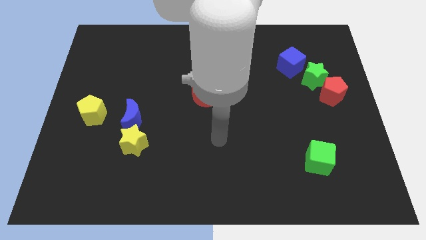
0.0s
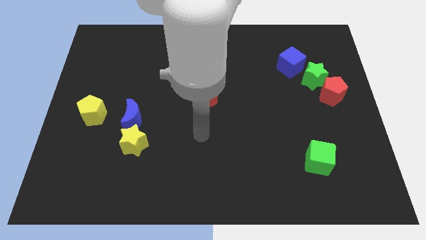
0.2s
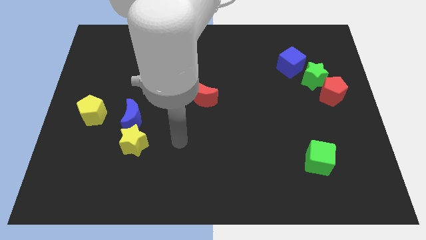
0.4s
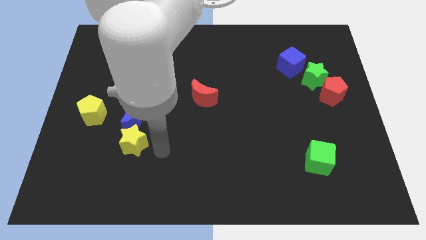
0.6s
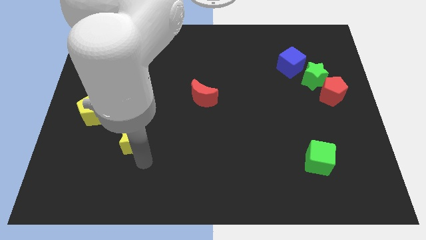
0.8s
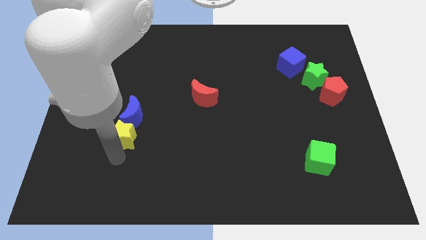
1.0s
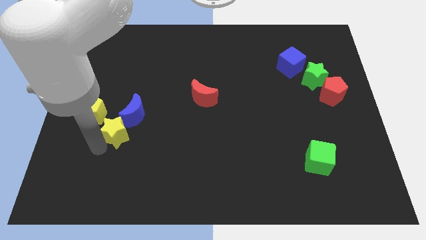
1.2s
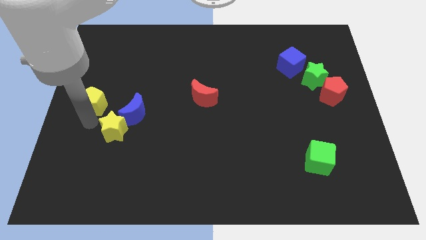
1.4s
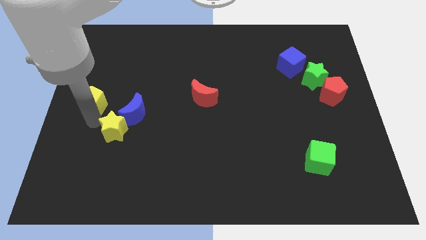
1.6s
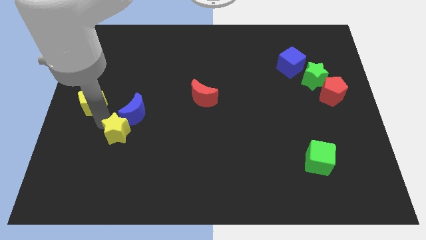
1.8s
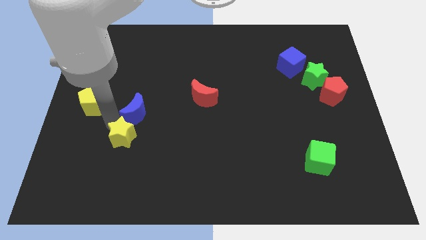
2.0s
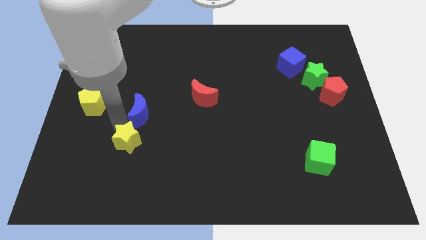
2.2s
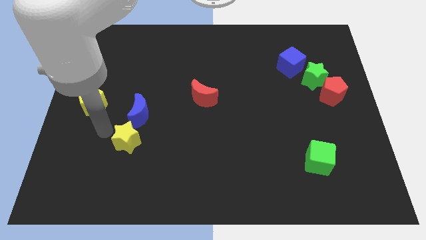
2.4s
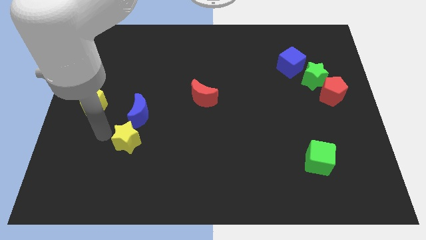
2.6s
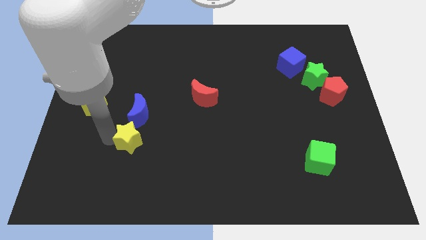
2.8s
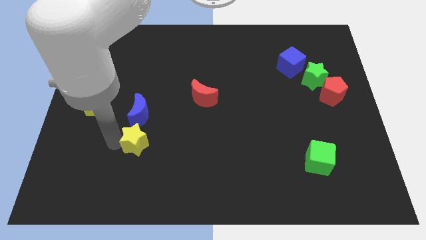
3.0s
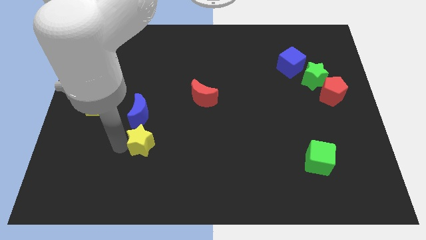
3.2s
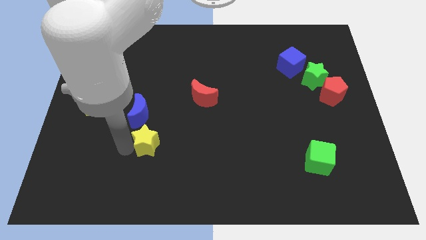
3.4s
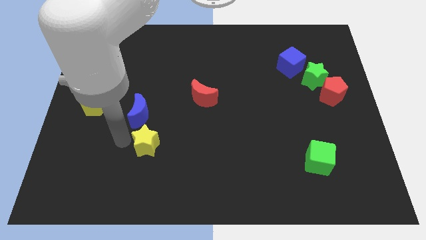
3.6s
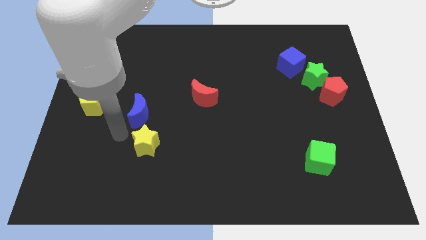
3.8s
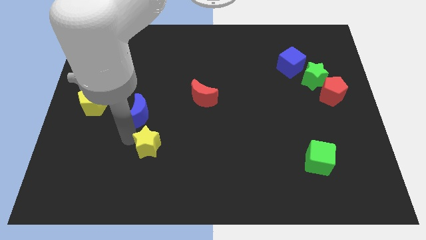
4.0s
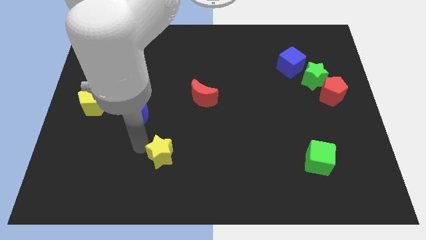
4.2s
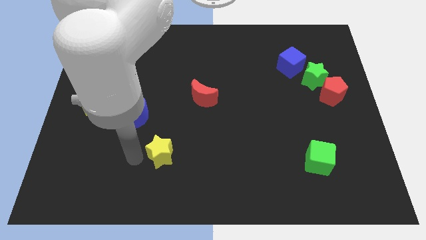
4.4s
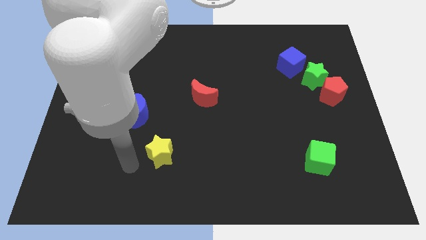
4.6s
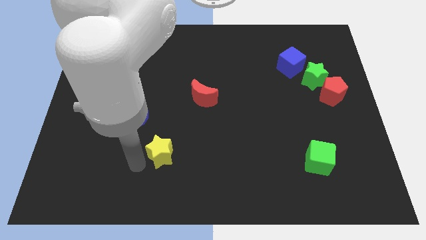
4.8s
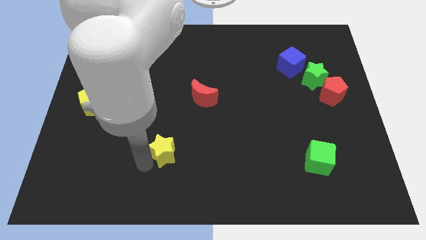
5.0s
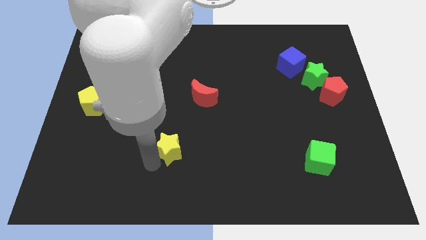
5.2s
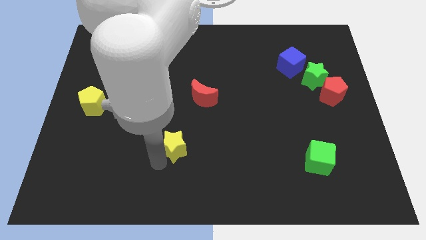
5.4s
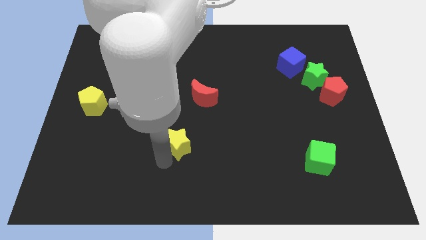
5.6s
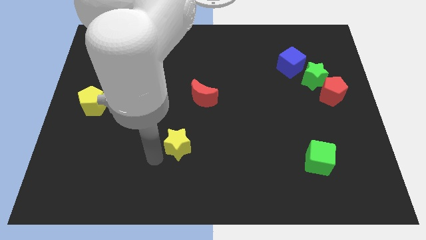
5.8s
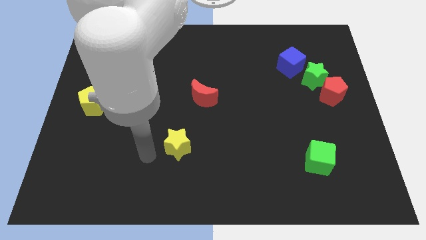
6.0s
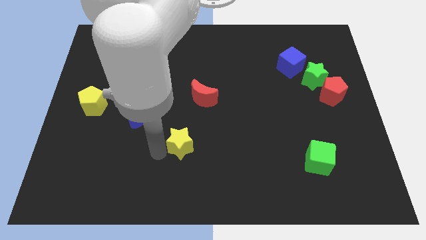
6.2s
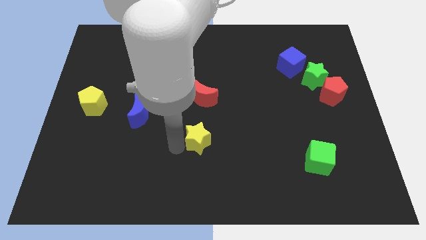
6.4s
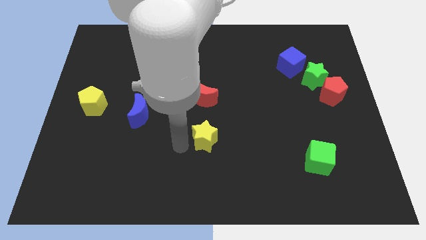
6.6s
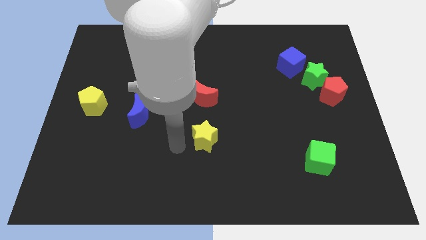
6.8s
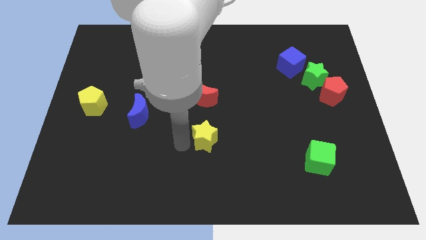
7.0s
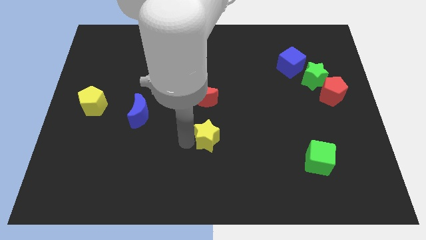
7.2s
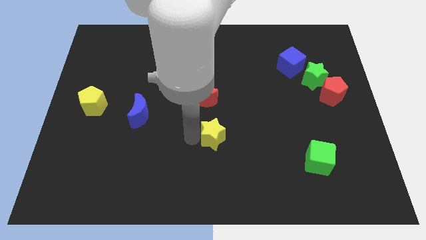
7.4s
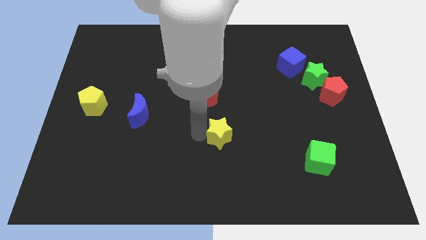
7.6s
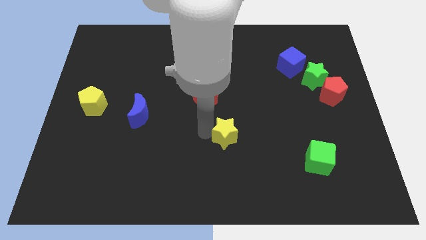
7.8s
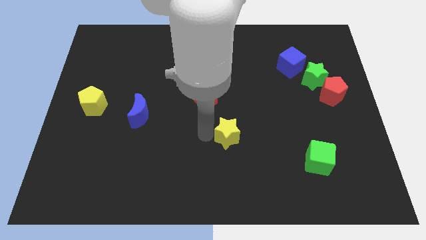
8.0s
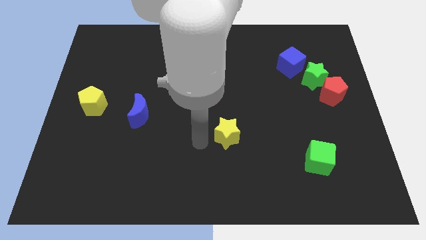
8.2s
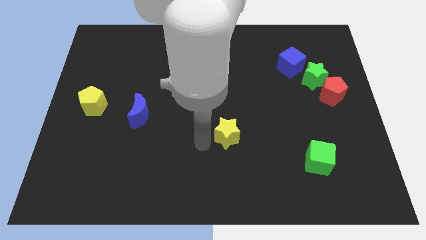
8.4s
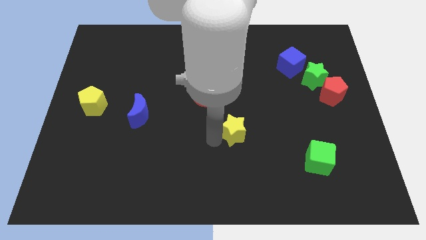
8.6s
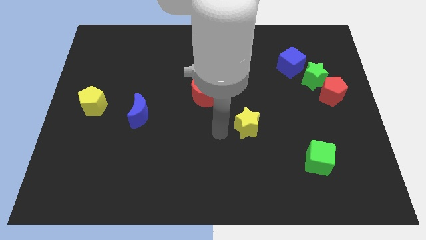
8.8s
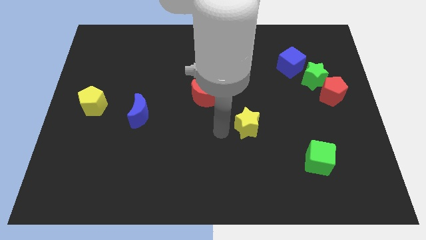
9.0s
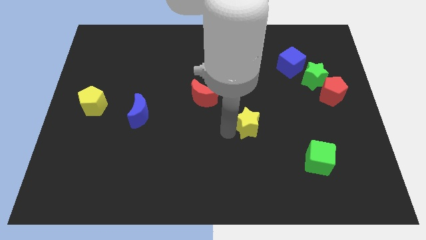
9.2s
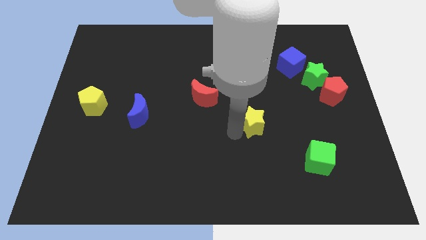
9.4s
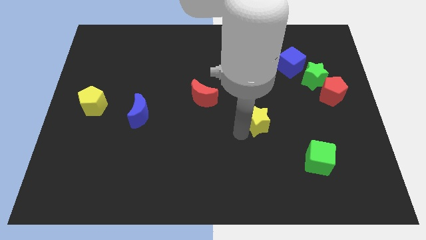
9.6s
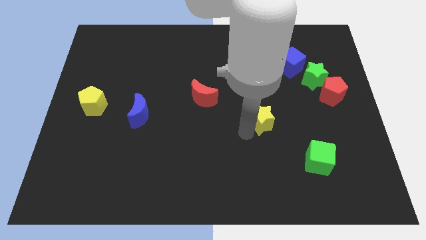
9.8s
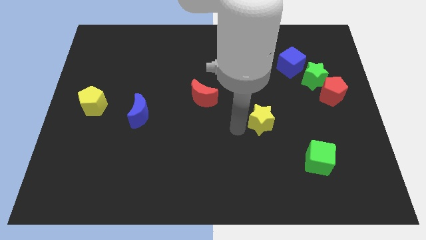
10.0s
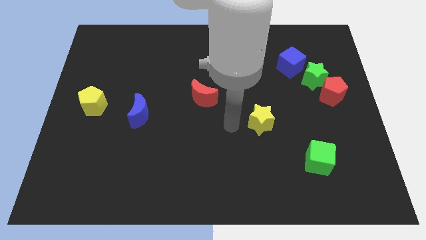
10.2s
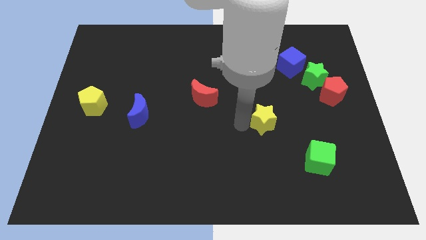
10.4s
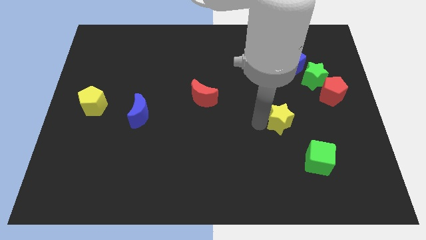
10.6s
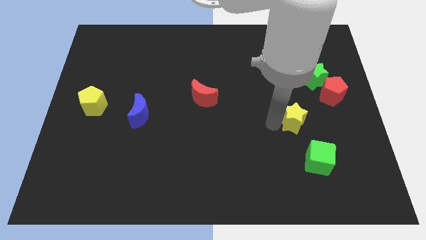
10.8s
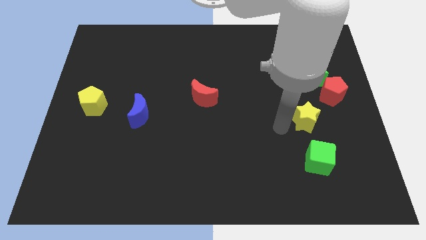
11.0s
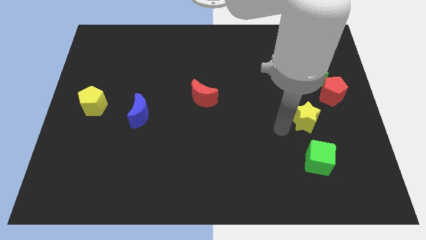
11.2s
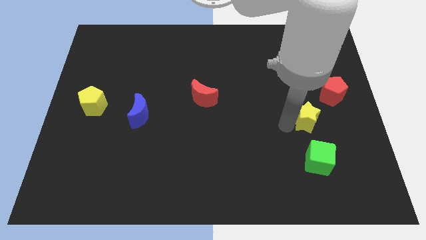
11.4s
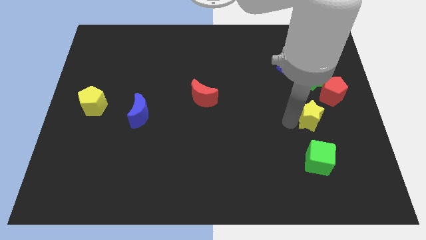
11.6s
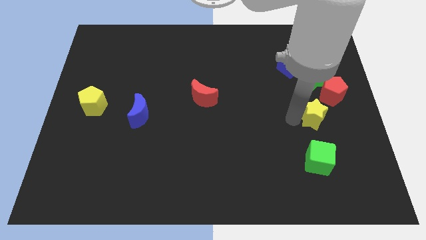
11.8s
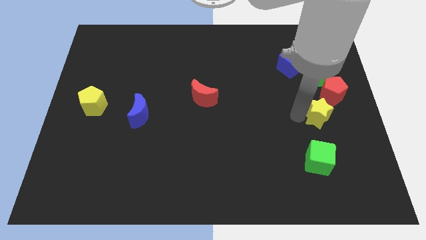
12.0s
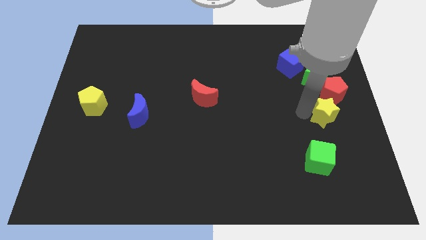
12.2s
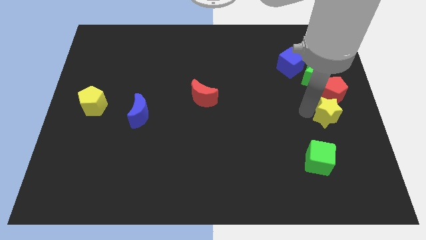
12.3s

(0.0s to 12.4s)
push the yellow star to the center right
